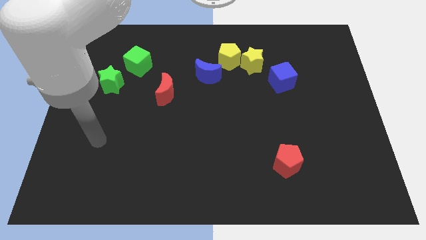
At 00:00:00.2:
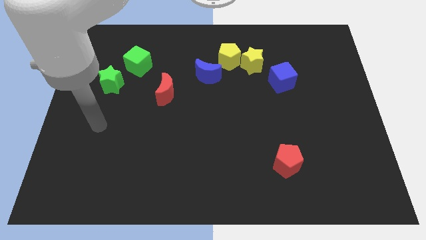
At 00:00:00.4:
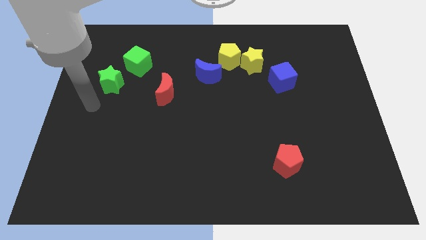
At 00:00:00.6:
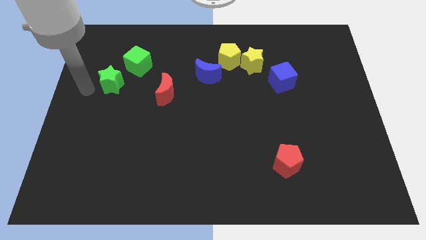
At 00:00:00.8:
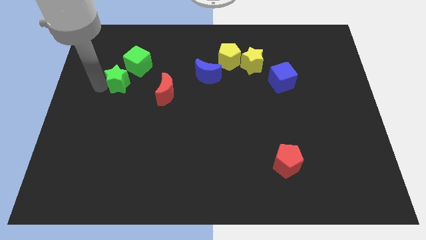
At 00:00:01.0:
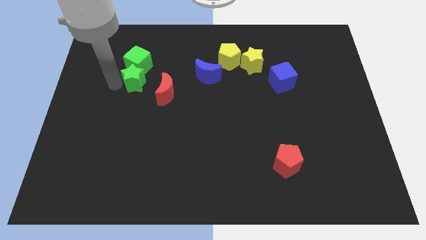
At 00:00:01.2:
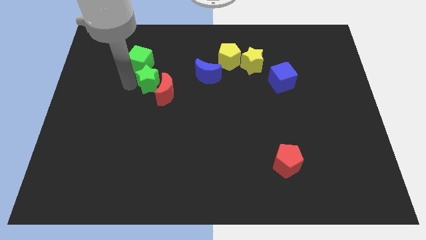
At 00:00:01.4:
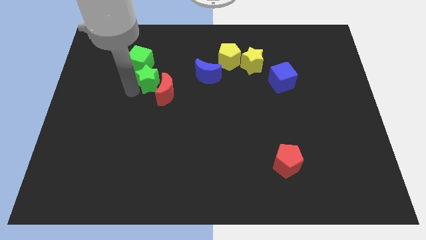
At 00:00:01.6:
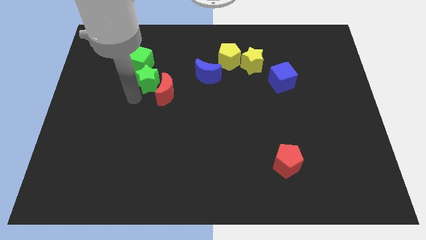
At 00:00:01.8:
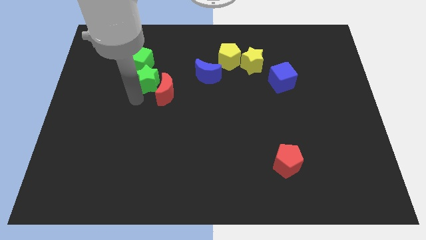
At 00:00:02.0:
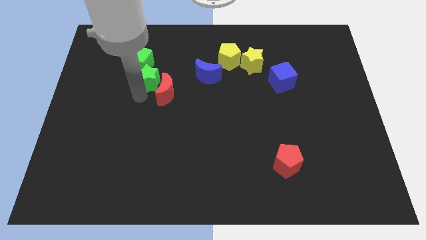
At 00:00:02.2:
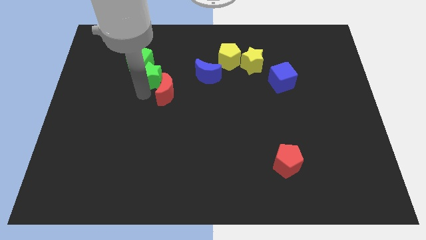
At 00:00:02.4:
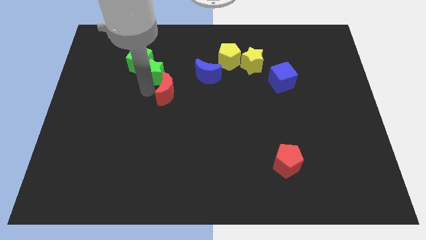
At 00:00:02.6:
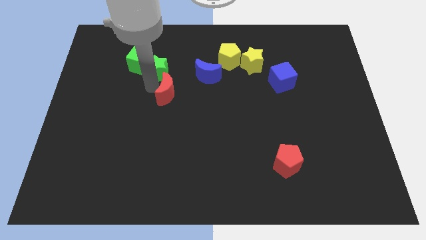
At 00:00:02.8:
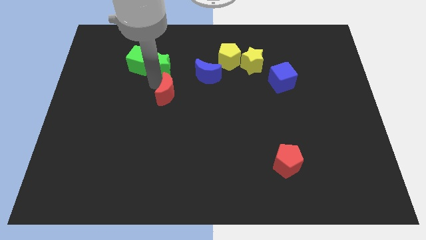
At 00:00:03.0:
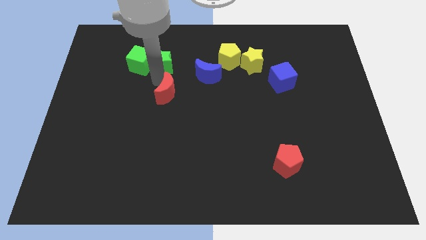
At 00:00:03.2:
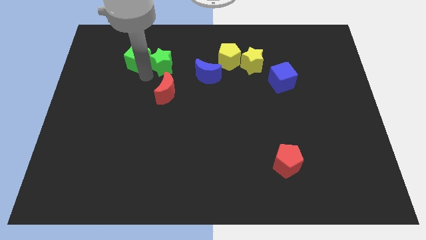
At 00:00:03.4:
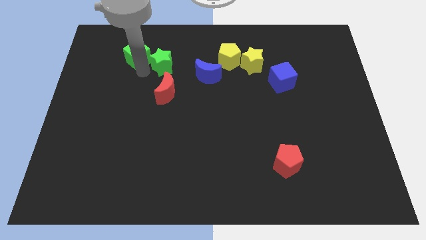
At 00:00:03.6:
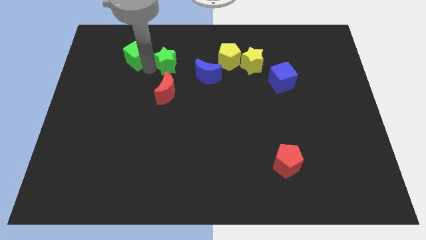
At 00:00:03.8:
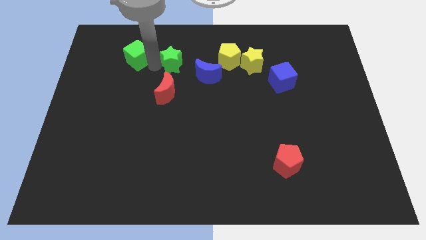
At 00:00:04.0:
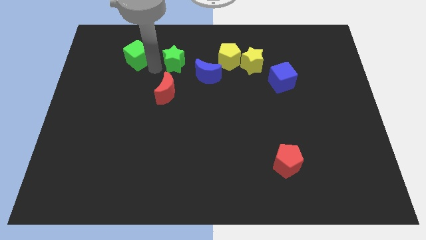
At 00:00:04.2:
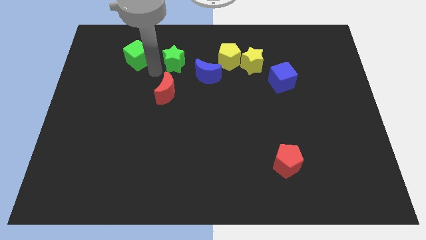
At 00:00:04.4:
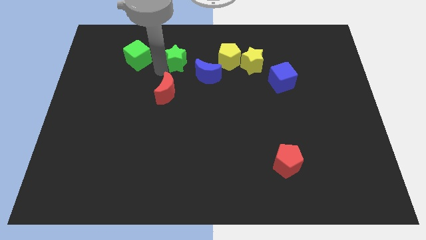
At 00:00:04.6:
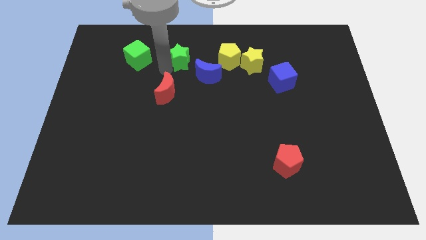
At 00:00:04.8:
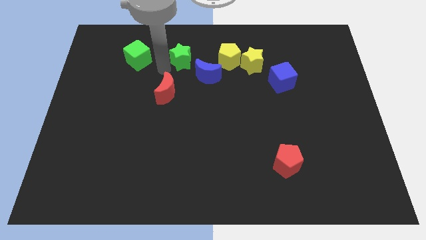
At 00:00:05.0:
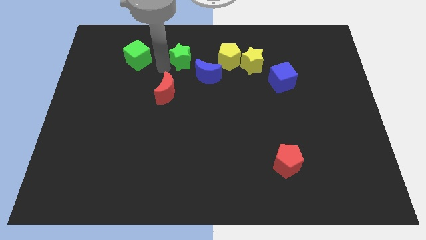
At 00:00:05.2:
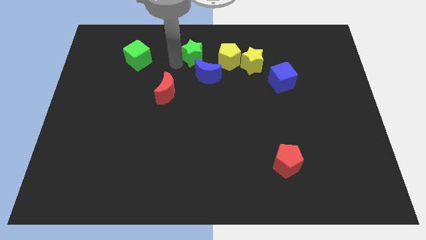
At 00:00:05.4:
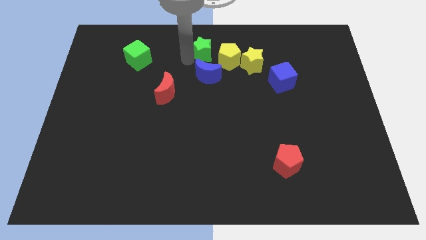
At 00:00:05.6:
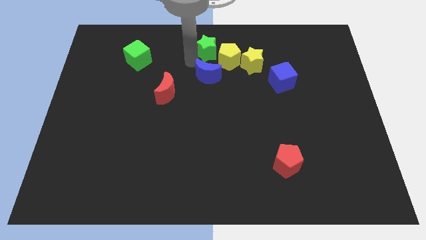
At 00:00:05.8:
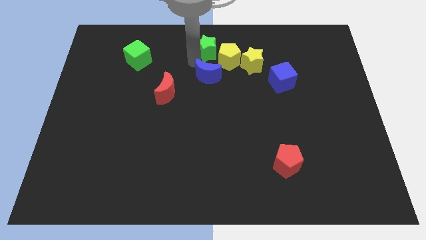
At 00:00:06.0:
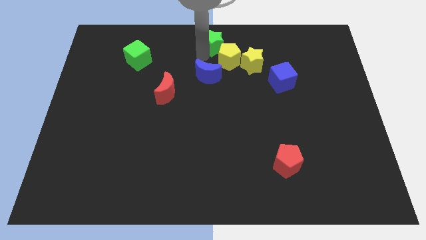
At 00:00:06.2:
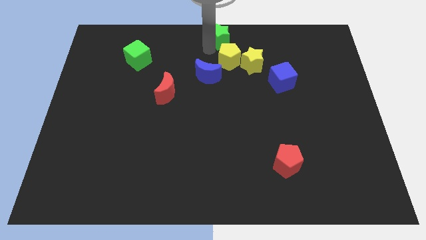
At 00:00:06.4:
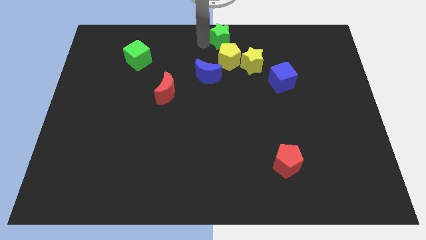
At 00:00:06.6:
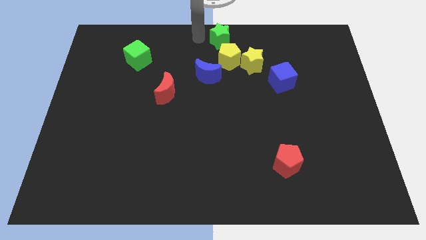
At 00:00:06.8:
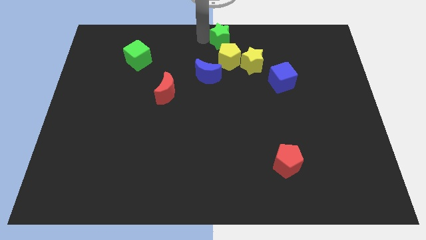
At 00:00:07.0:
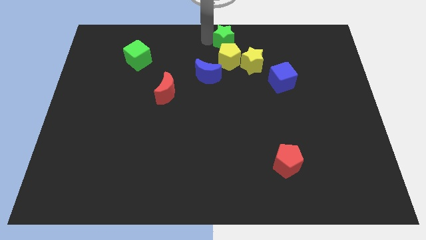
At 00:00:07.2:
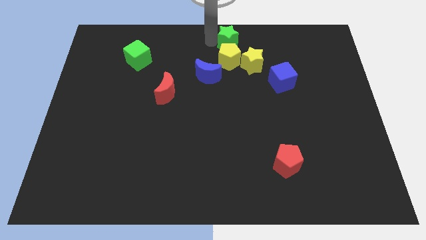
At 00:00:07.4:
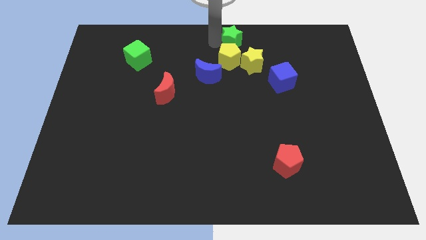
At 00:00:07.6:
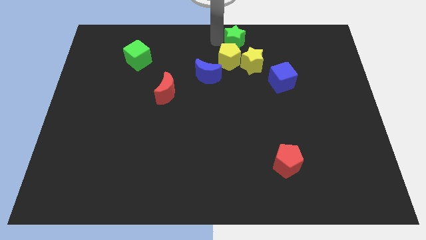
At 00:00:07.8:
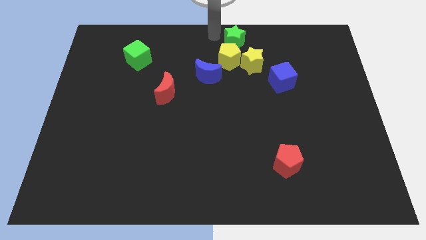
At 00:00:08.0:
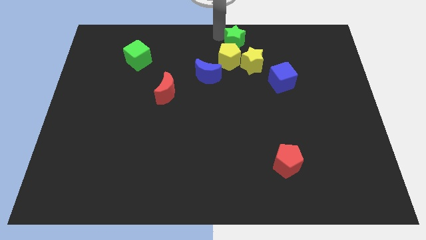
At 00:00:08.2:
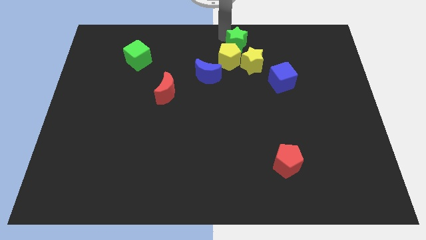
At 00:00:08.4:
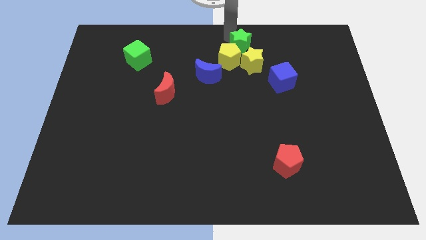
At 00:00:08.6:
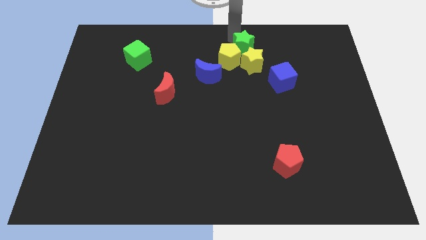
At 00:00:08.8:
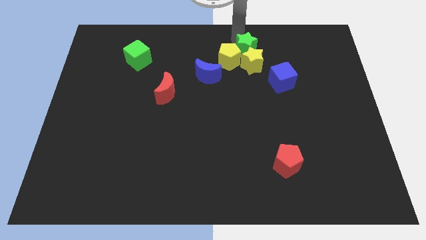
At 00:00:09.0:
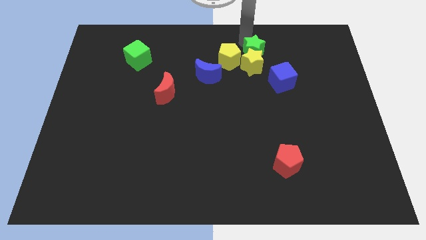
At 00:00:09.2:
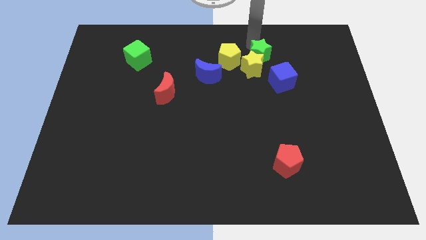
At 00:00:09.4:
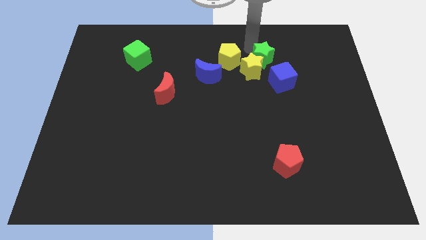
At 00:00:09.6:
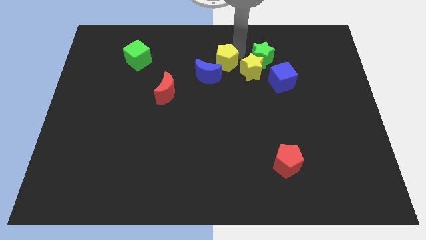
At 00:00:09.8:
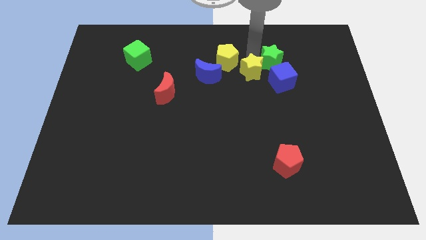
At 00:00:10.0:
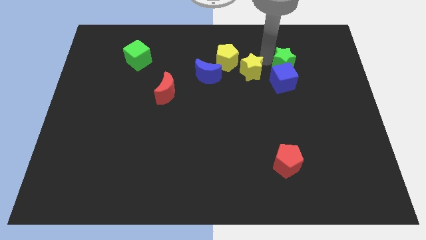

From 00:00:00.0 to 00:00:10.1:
move the green star diagonally up and to the right of the blue cube

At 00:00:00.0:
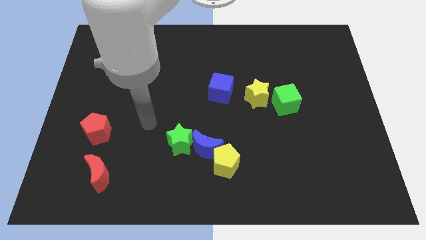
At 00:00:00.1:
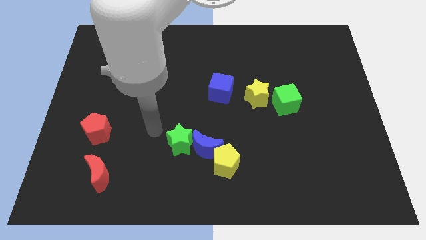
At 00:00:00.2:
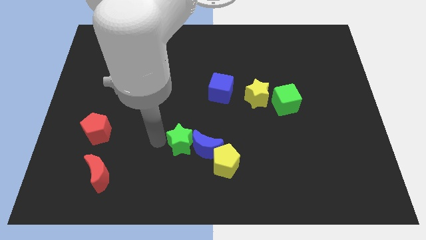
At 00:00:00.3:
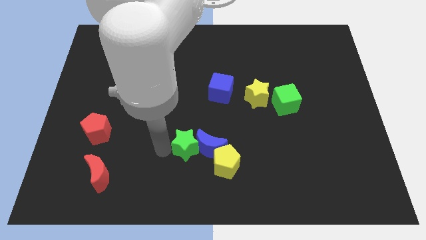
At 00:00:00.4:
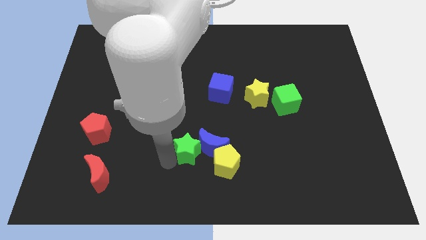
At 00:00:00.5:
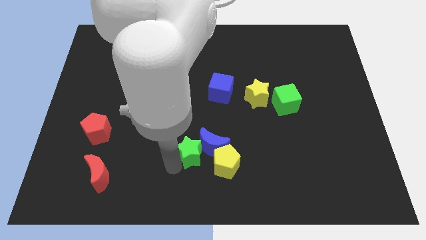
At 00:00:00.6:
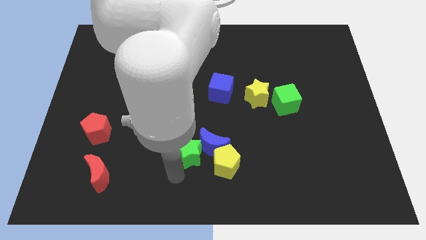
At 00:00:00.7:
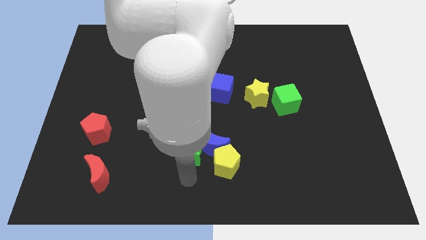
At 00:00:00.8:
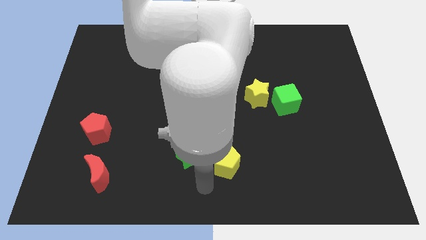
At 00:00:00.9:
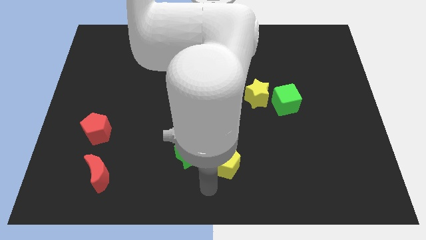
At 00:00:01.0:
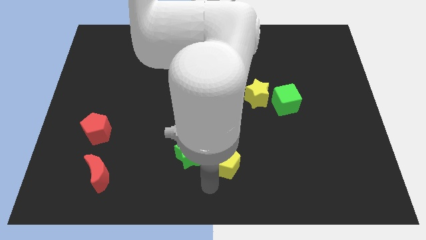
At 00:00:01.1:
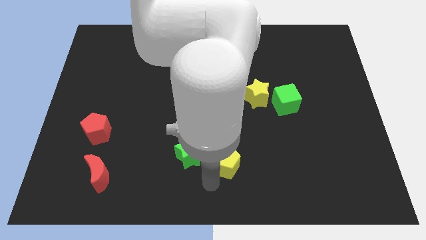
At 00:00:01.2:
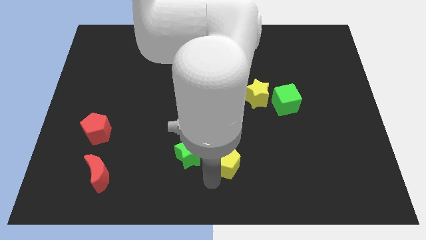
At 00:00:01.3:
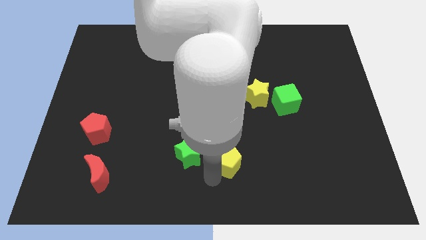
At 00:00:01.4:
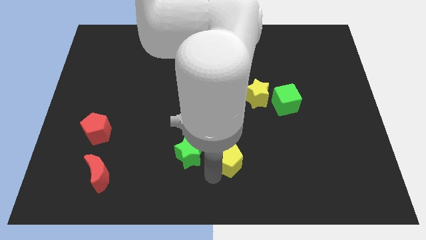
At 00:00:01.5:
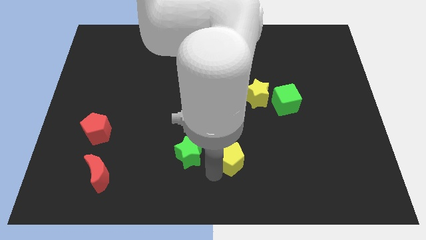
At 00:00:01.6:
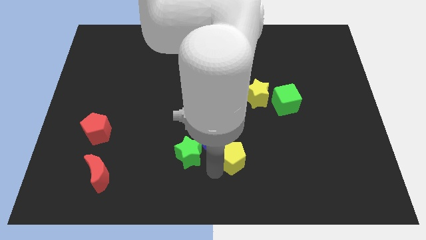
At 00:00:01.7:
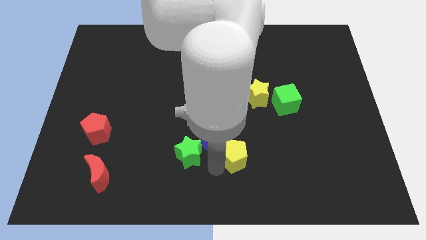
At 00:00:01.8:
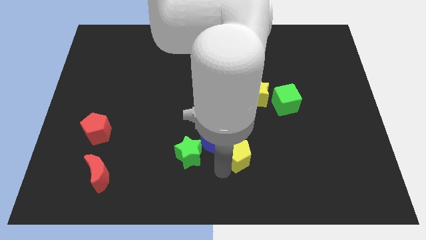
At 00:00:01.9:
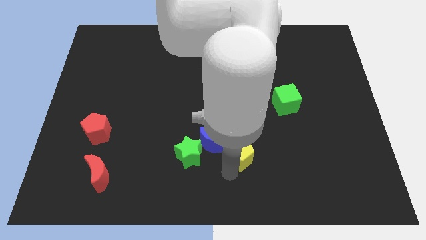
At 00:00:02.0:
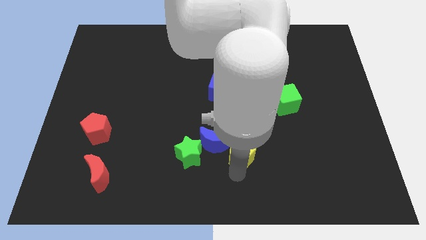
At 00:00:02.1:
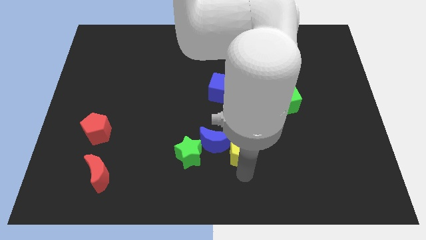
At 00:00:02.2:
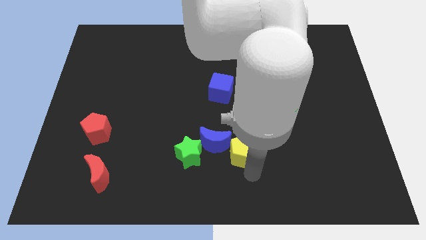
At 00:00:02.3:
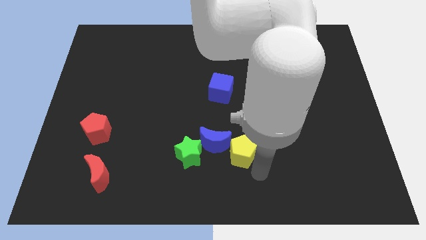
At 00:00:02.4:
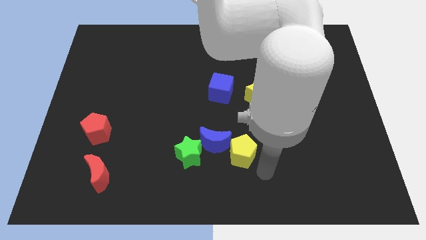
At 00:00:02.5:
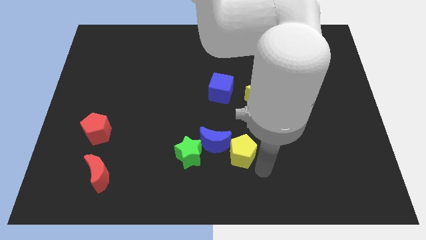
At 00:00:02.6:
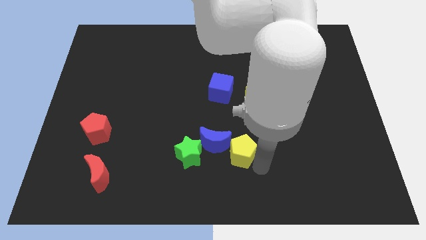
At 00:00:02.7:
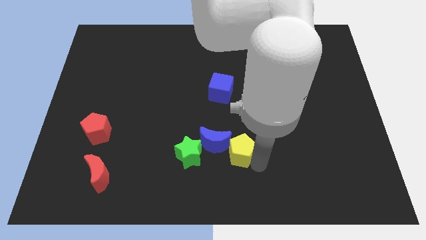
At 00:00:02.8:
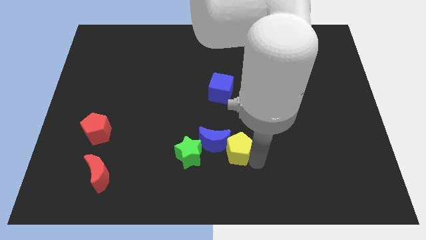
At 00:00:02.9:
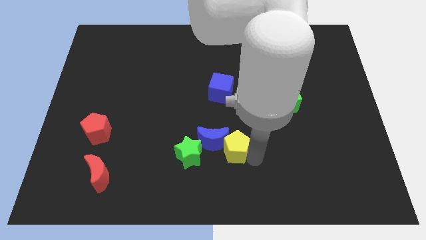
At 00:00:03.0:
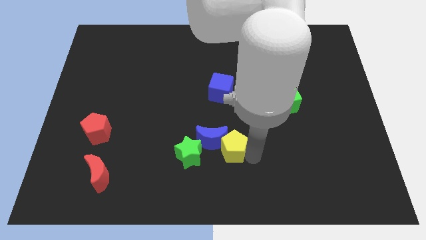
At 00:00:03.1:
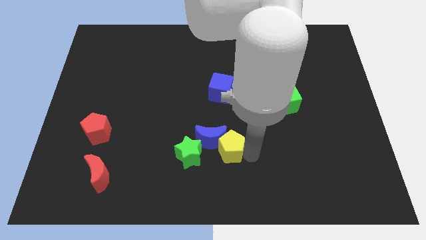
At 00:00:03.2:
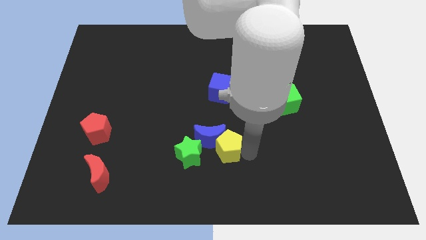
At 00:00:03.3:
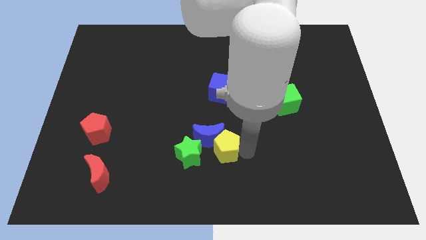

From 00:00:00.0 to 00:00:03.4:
slide the yellow pentagon to the top right of the green star
